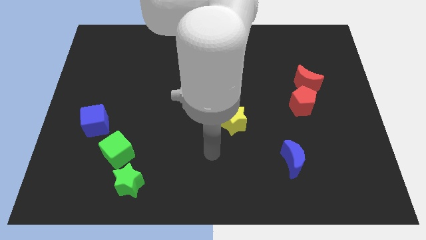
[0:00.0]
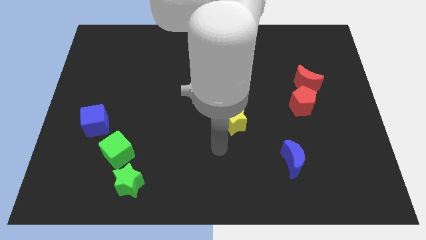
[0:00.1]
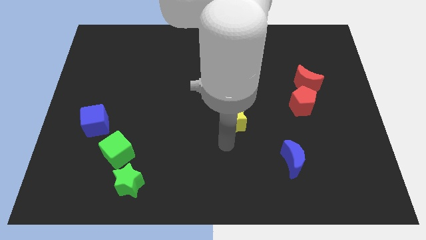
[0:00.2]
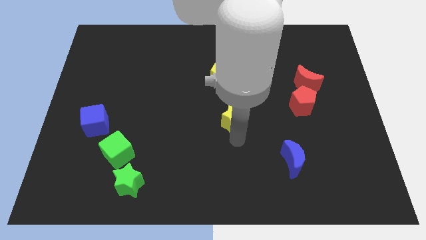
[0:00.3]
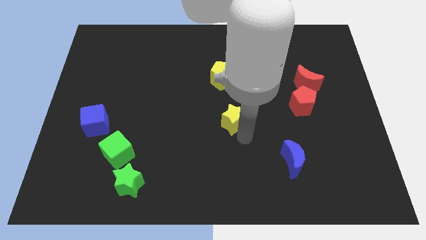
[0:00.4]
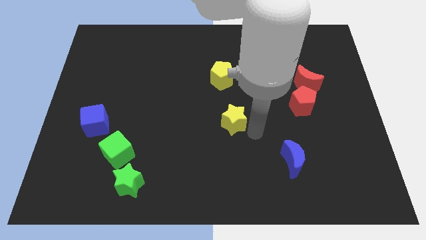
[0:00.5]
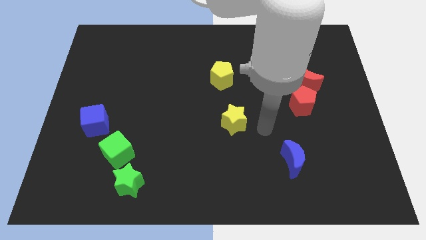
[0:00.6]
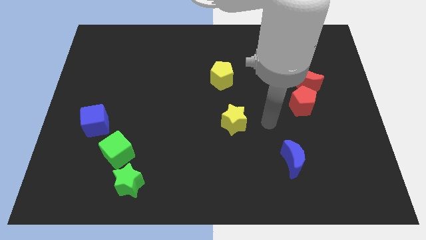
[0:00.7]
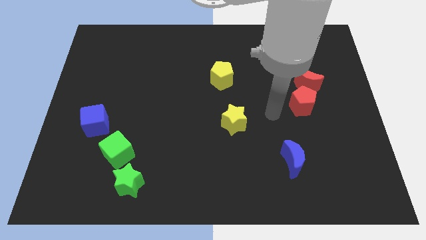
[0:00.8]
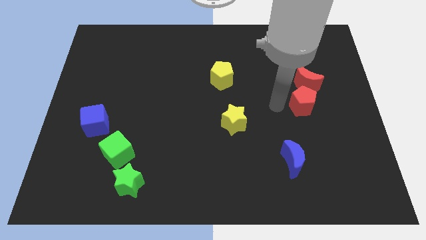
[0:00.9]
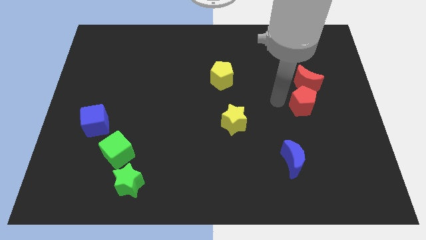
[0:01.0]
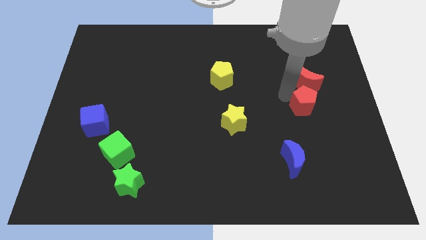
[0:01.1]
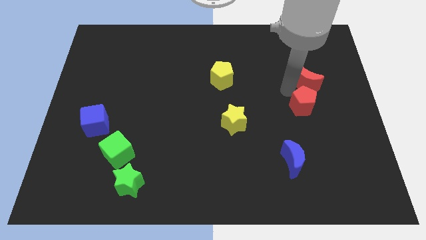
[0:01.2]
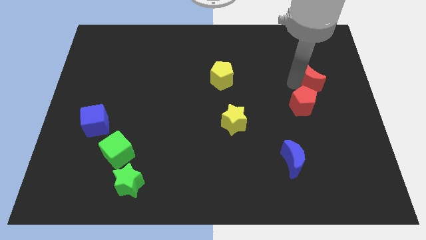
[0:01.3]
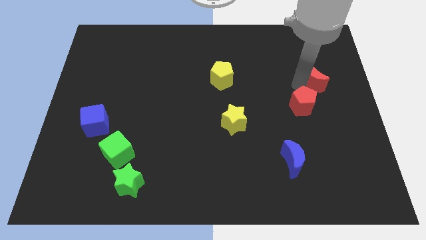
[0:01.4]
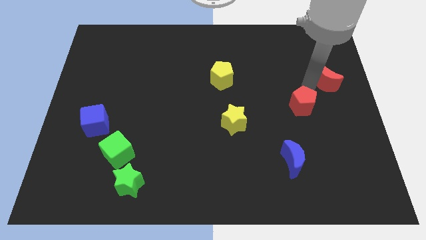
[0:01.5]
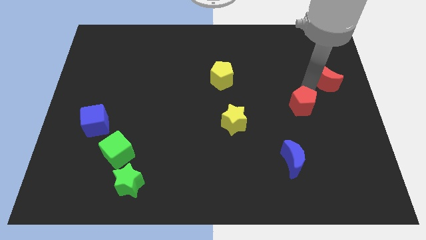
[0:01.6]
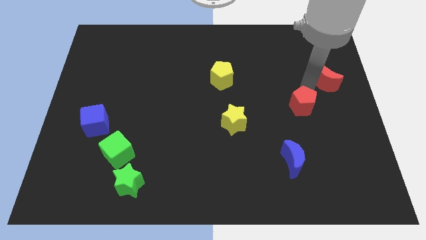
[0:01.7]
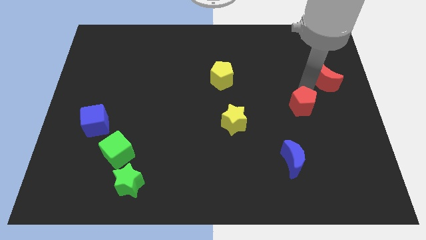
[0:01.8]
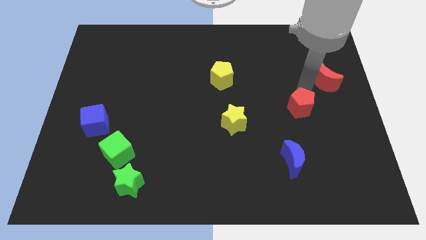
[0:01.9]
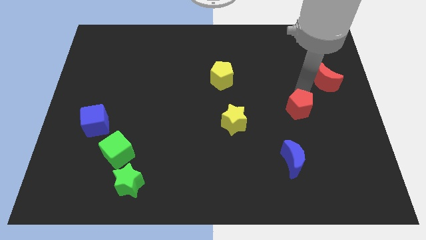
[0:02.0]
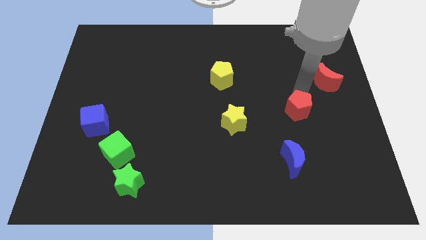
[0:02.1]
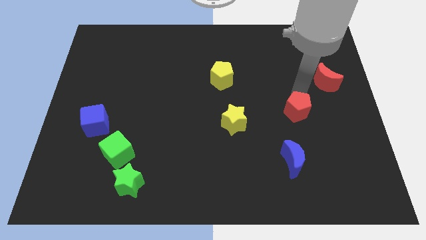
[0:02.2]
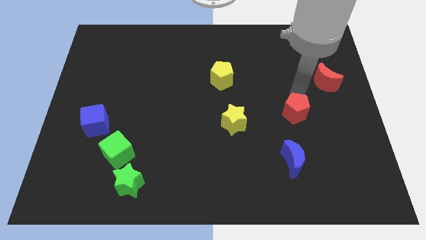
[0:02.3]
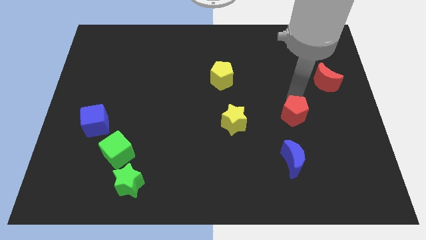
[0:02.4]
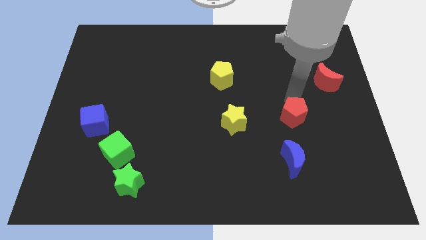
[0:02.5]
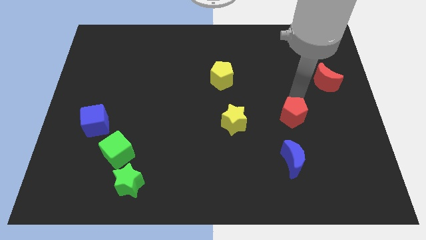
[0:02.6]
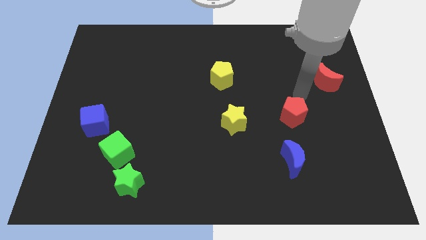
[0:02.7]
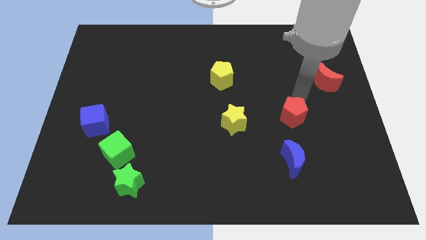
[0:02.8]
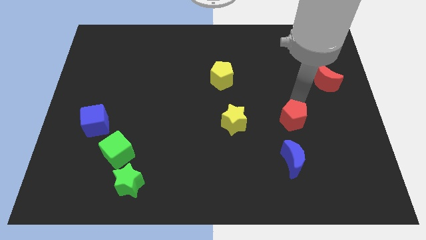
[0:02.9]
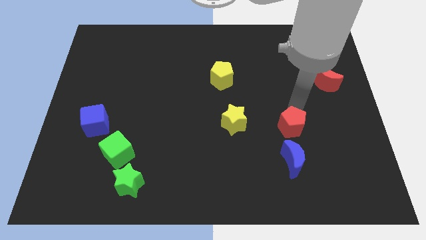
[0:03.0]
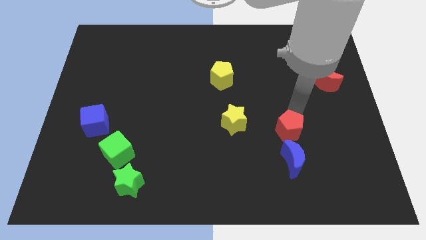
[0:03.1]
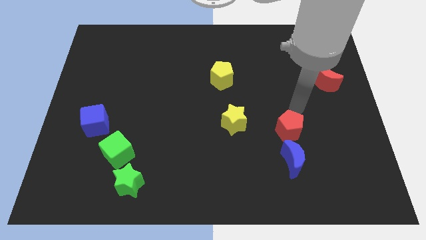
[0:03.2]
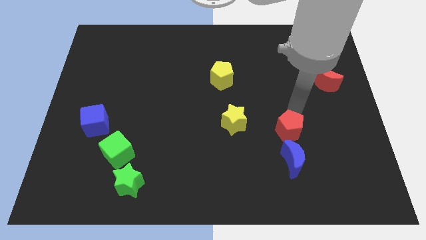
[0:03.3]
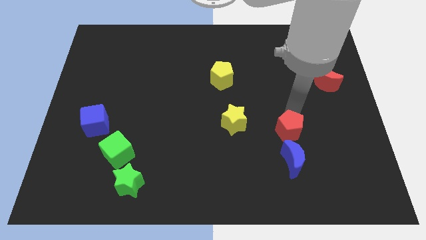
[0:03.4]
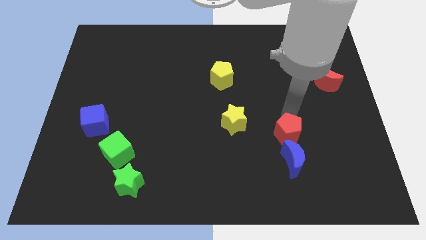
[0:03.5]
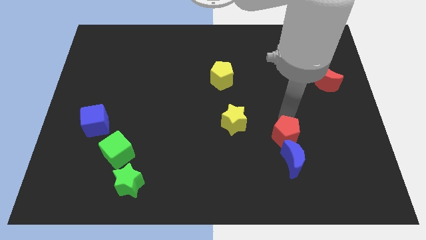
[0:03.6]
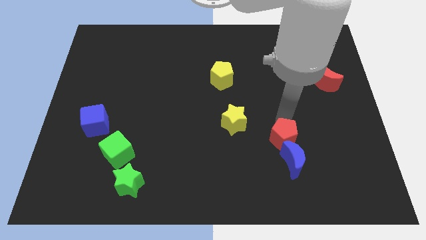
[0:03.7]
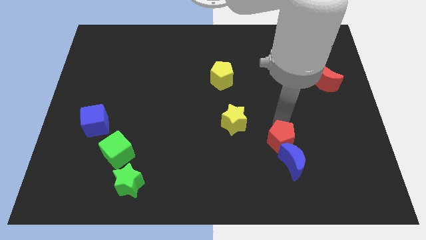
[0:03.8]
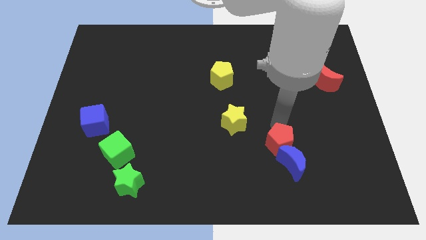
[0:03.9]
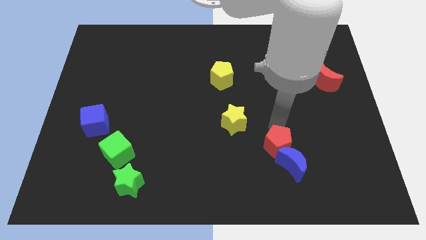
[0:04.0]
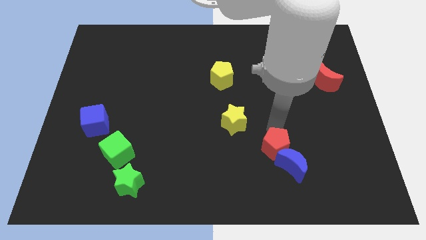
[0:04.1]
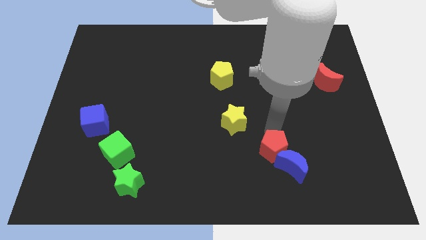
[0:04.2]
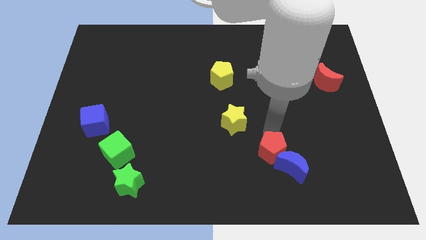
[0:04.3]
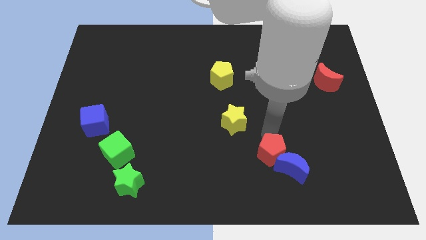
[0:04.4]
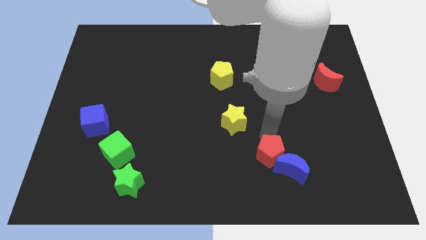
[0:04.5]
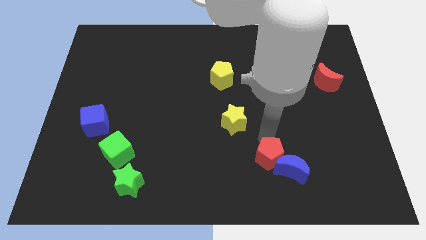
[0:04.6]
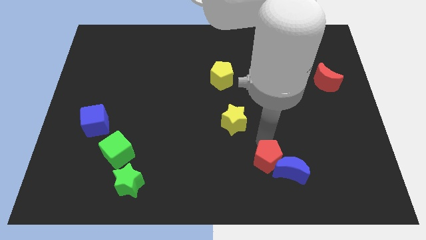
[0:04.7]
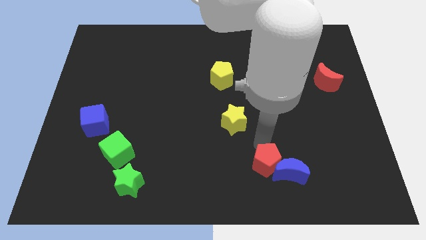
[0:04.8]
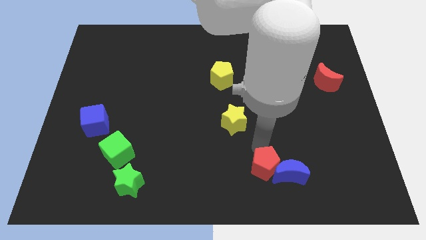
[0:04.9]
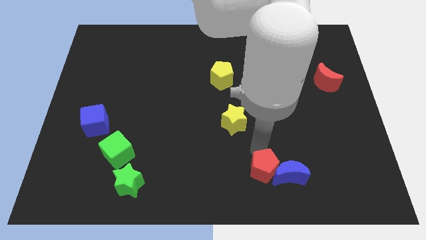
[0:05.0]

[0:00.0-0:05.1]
put the red pentagon diagonally down and to the left of the blue moon

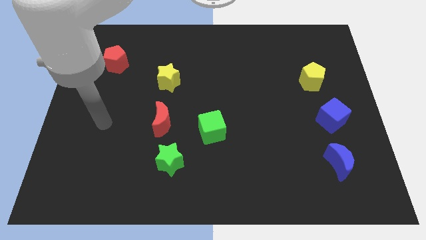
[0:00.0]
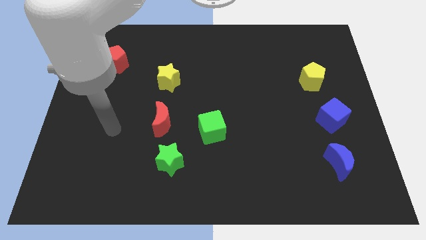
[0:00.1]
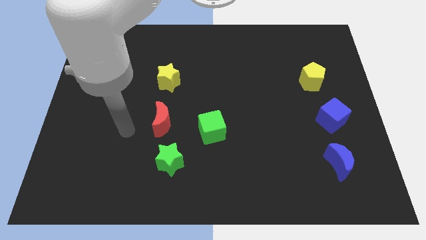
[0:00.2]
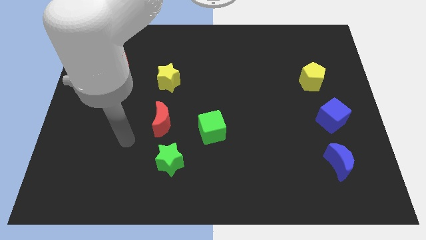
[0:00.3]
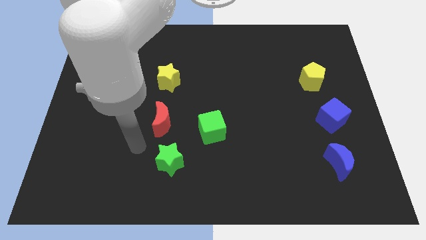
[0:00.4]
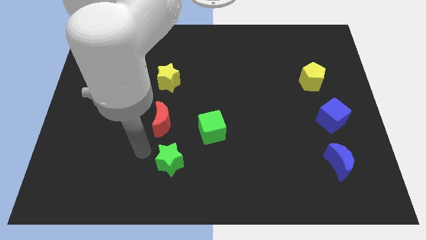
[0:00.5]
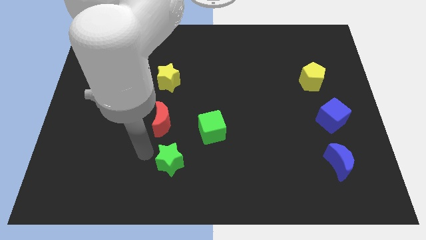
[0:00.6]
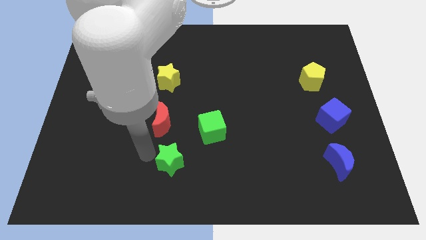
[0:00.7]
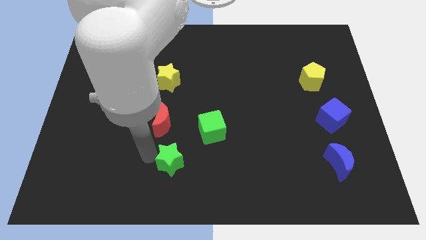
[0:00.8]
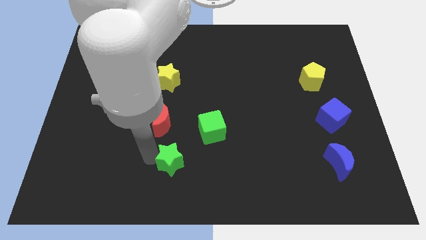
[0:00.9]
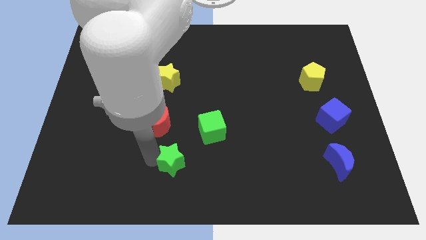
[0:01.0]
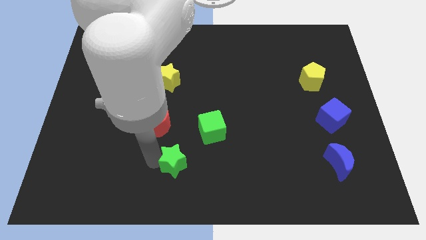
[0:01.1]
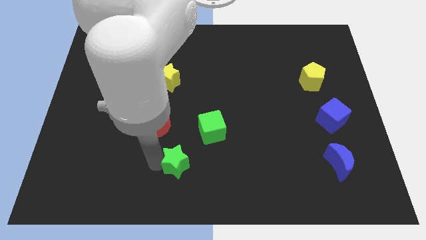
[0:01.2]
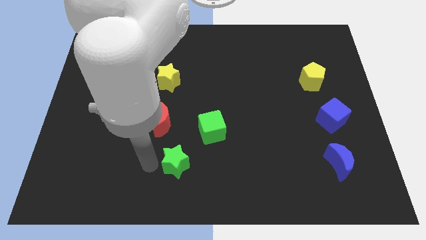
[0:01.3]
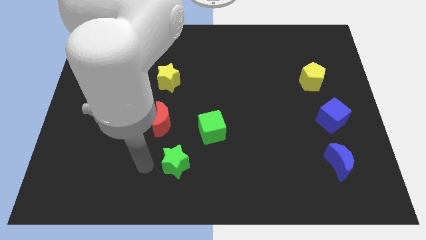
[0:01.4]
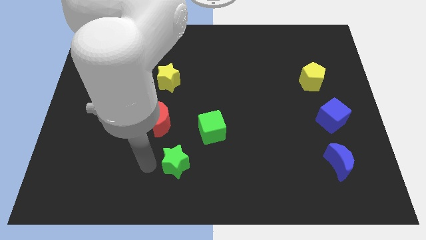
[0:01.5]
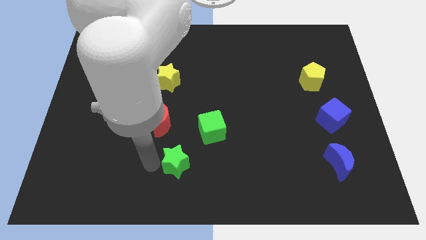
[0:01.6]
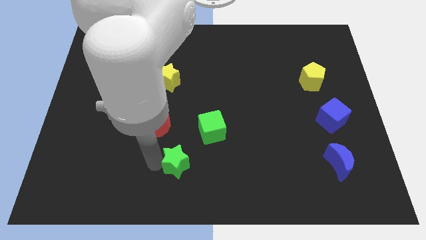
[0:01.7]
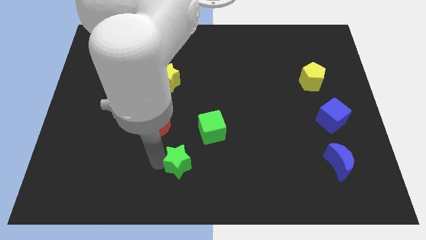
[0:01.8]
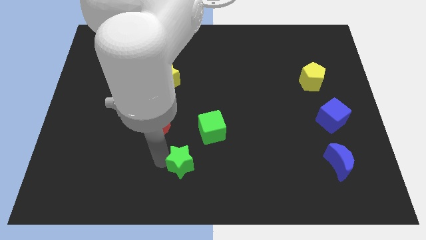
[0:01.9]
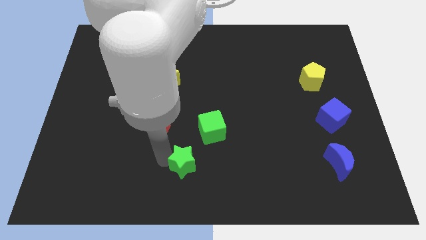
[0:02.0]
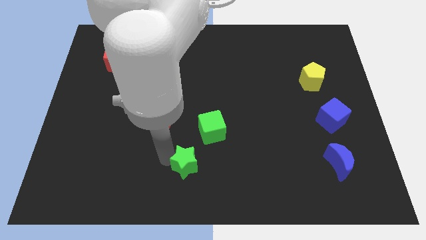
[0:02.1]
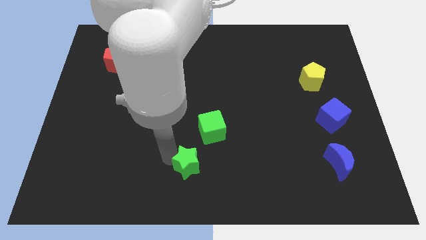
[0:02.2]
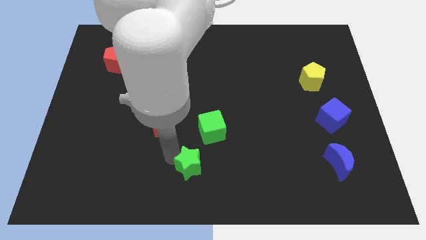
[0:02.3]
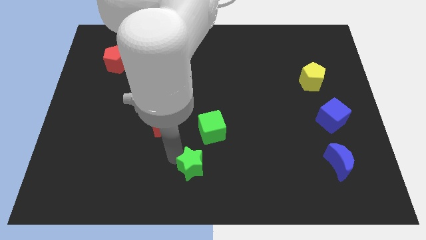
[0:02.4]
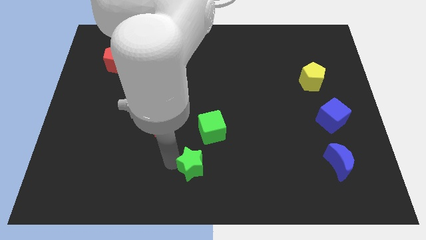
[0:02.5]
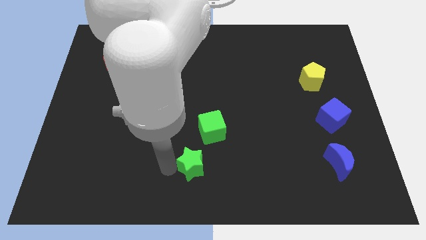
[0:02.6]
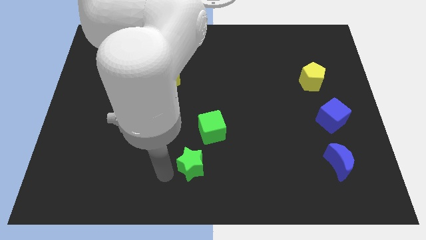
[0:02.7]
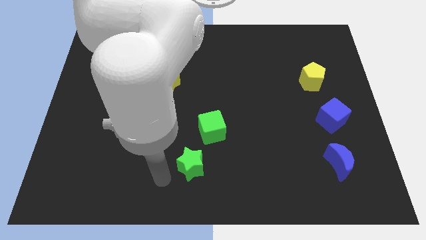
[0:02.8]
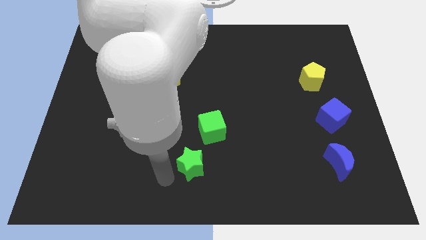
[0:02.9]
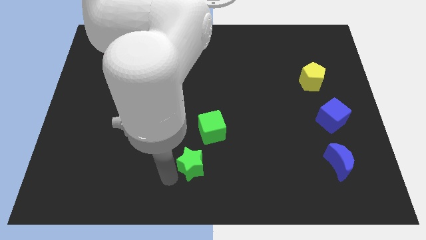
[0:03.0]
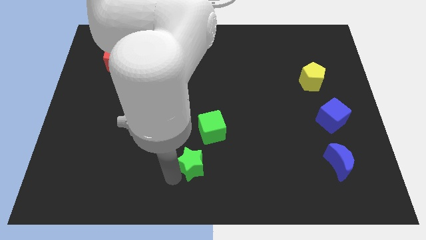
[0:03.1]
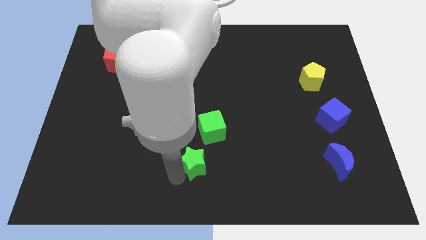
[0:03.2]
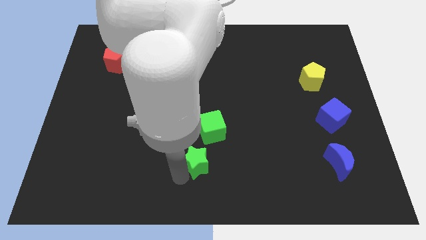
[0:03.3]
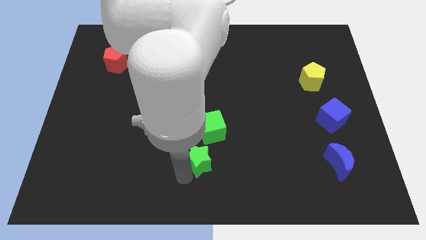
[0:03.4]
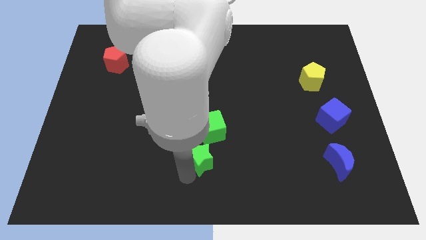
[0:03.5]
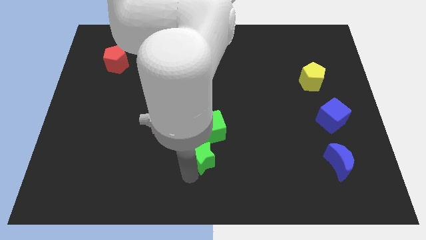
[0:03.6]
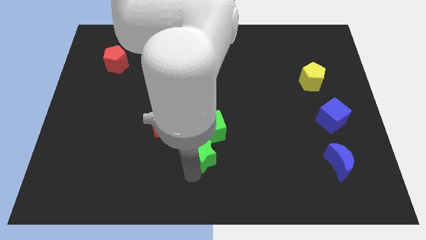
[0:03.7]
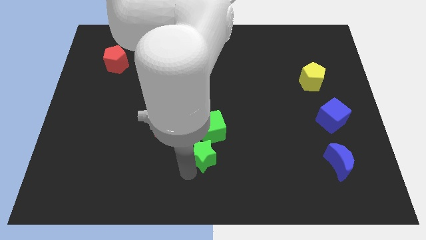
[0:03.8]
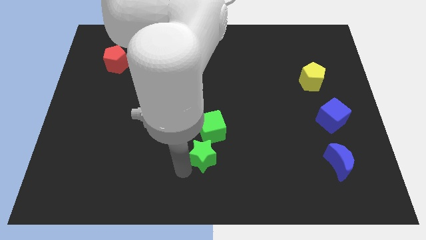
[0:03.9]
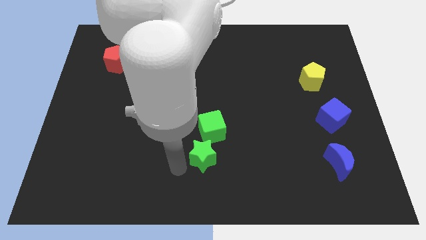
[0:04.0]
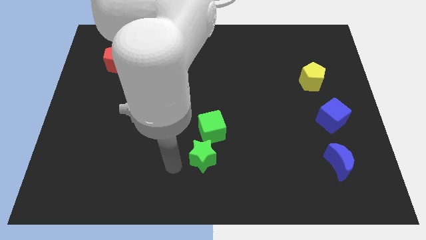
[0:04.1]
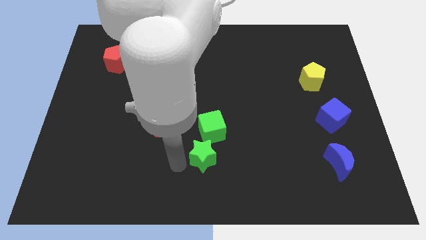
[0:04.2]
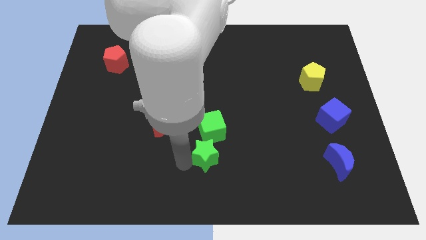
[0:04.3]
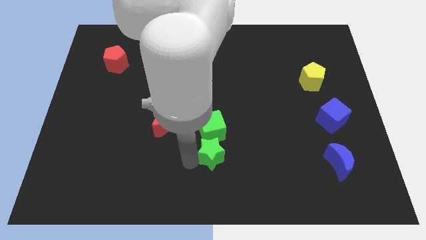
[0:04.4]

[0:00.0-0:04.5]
push the green star diagonally down and to the right of the green cube
